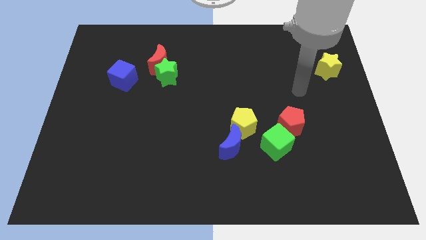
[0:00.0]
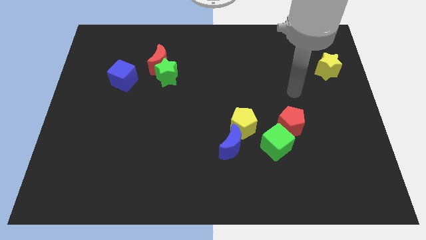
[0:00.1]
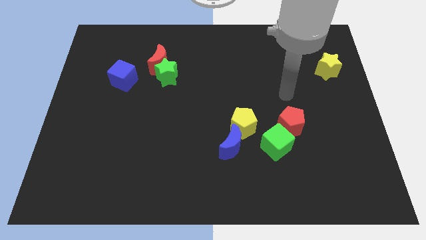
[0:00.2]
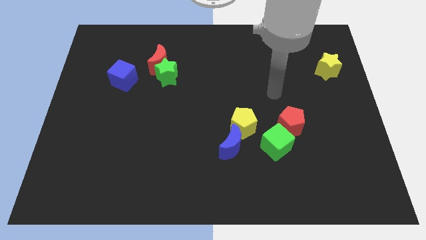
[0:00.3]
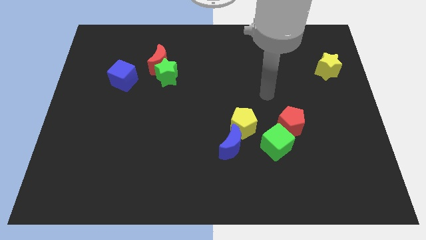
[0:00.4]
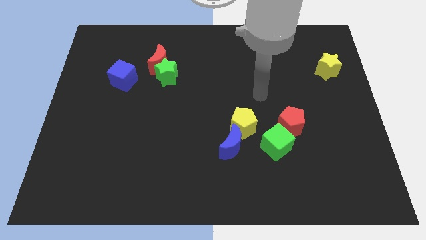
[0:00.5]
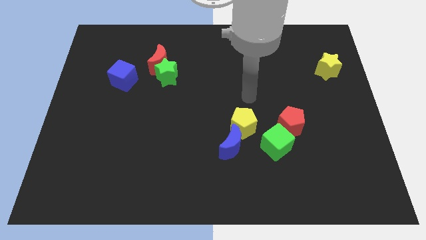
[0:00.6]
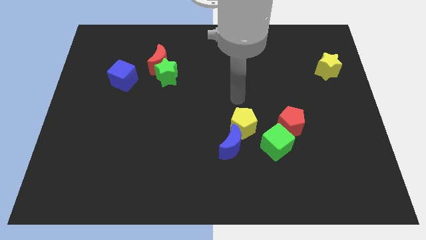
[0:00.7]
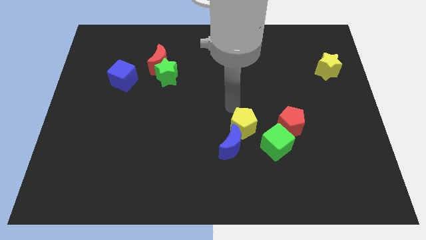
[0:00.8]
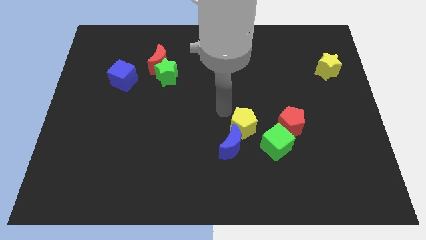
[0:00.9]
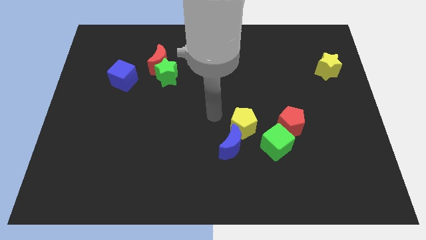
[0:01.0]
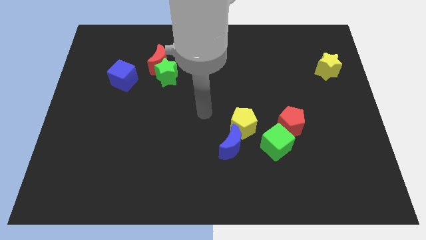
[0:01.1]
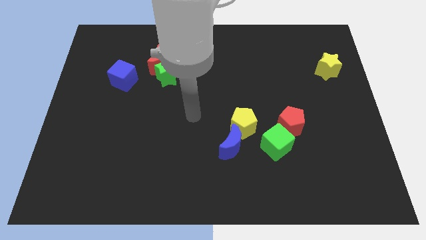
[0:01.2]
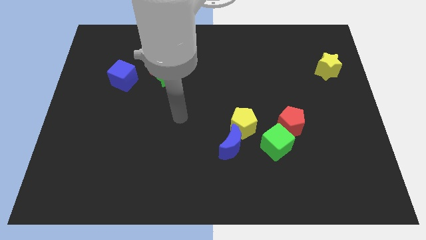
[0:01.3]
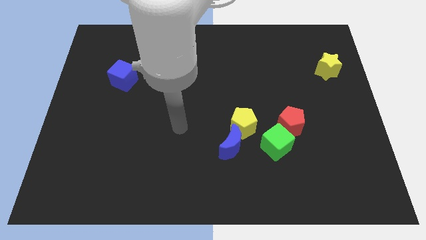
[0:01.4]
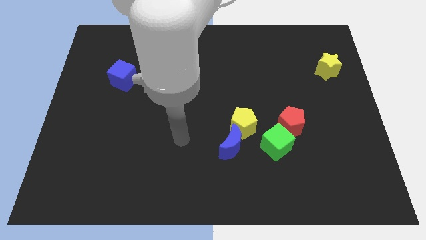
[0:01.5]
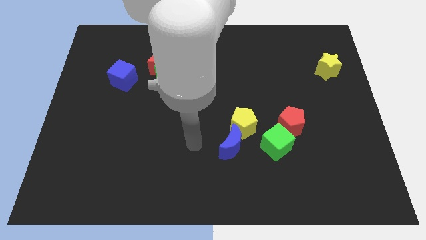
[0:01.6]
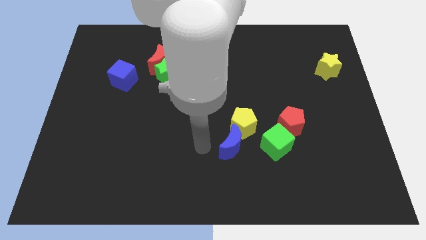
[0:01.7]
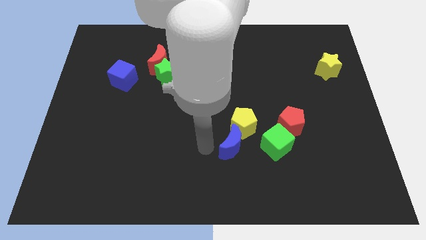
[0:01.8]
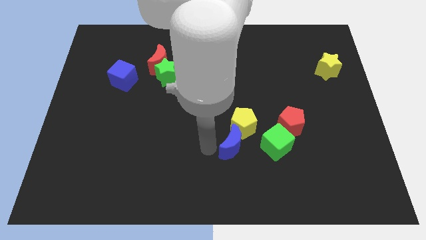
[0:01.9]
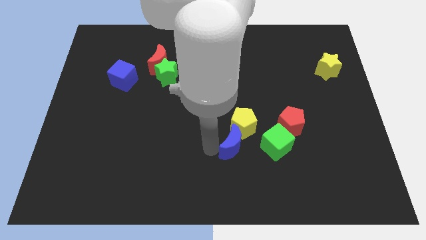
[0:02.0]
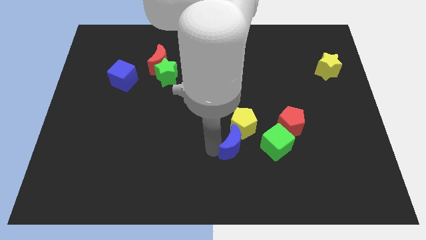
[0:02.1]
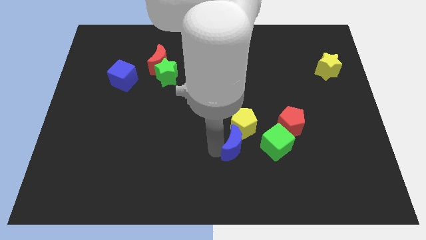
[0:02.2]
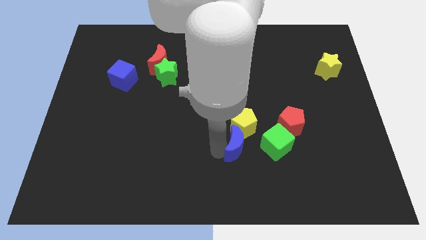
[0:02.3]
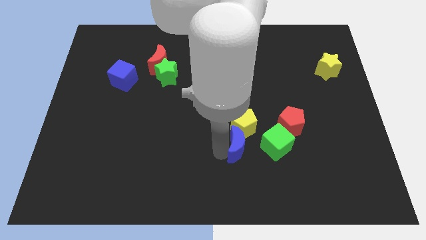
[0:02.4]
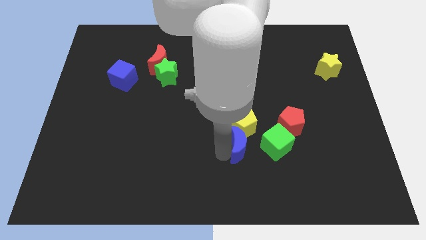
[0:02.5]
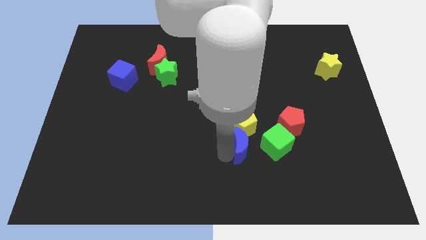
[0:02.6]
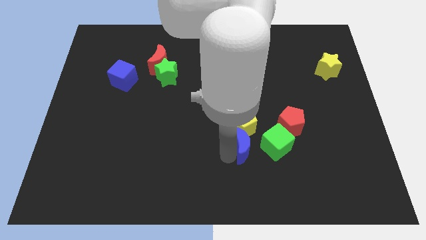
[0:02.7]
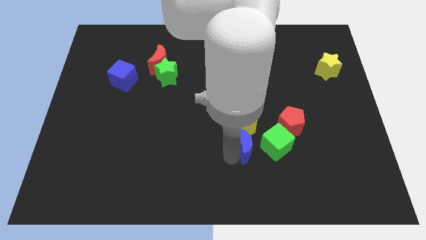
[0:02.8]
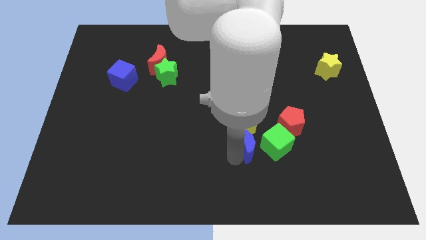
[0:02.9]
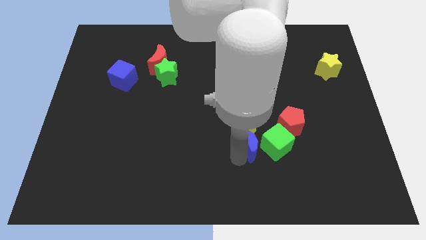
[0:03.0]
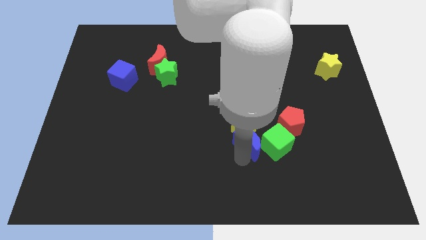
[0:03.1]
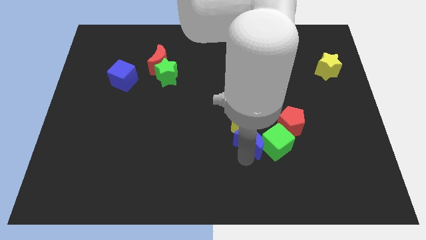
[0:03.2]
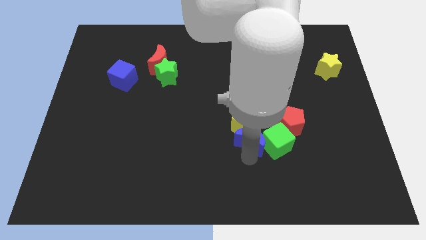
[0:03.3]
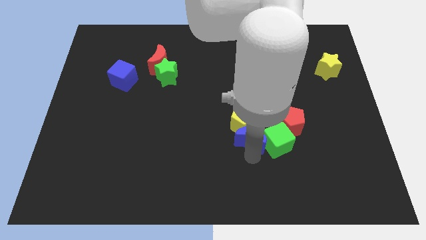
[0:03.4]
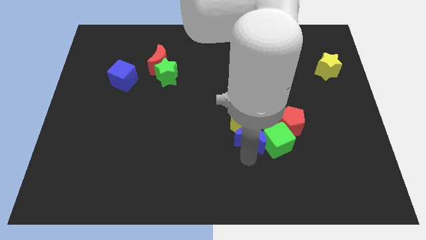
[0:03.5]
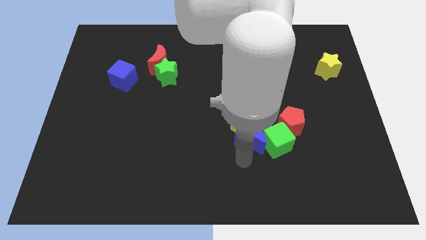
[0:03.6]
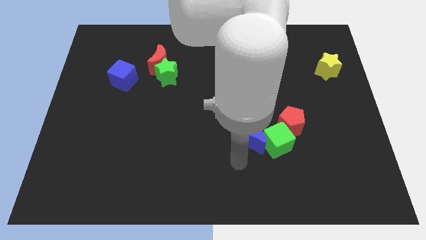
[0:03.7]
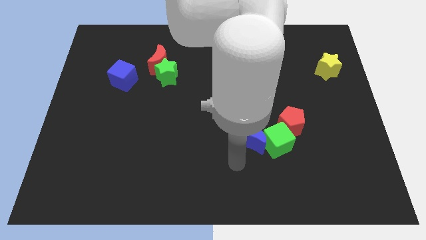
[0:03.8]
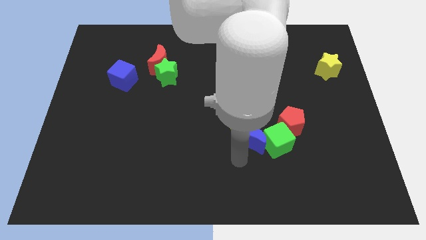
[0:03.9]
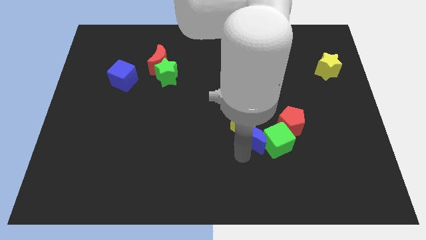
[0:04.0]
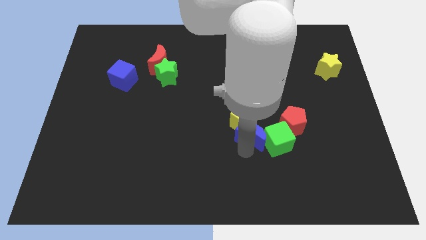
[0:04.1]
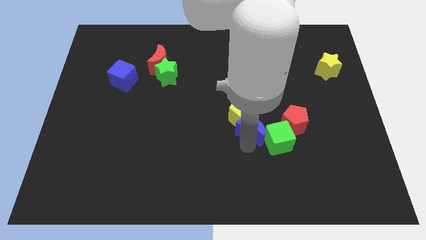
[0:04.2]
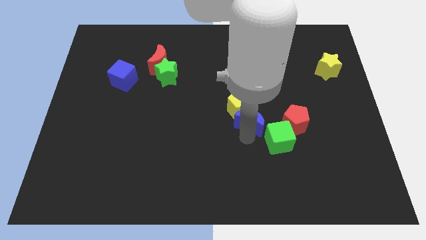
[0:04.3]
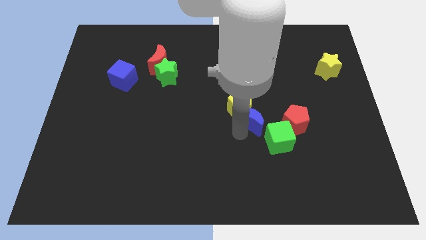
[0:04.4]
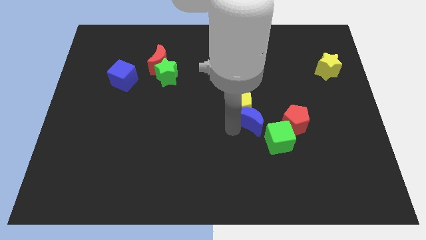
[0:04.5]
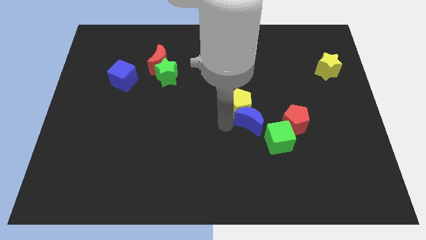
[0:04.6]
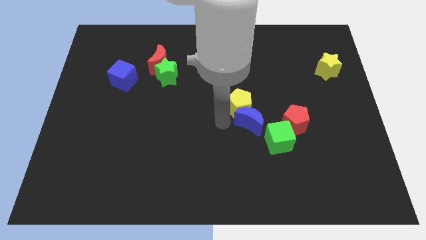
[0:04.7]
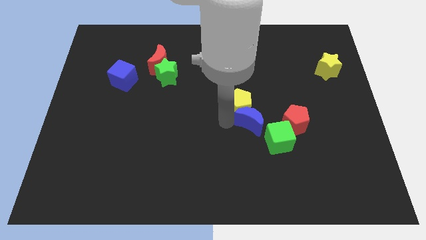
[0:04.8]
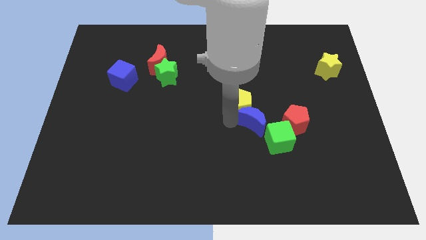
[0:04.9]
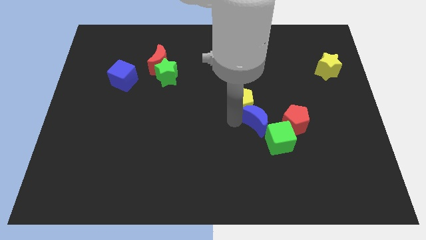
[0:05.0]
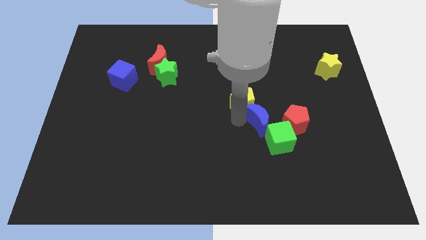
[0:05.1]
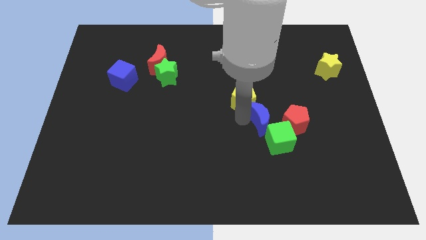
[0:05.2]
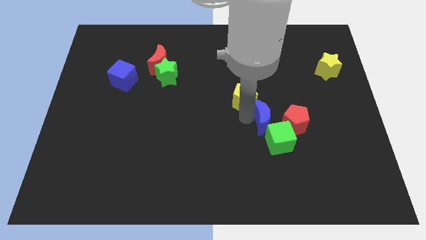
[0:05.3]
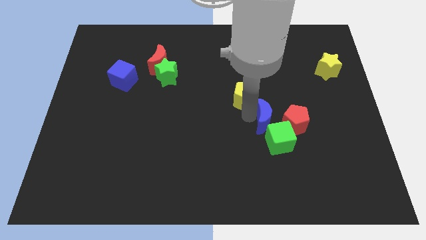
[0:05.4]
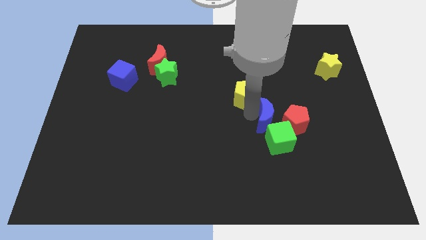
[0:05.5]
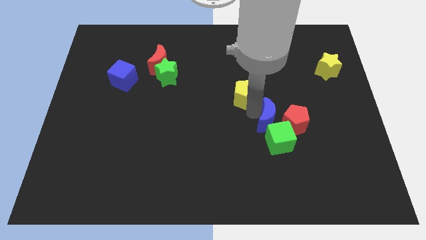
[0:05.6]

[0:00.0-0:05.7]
slide the blue moon to the red pentagon

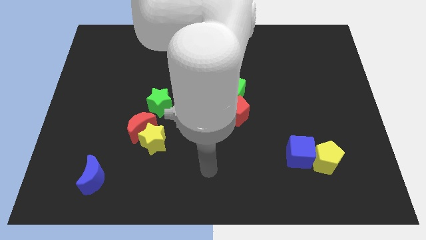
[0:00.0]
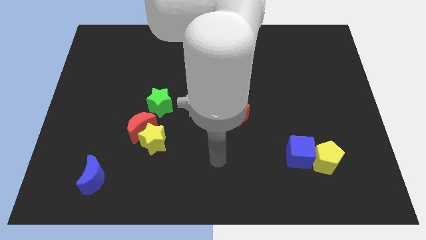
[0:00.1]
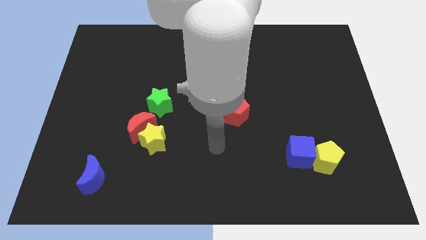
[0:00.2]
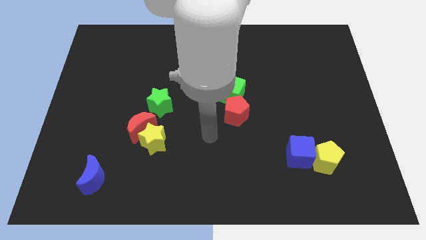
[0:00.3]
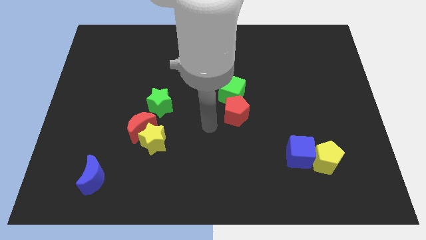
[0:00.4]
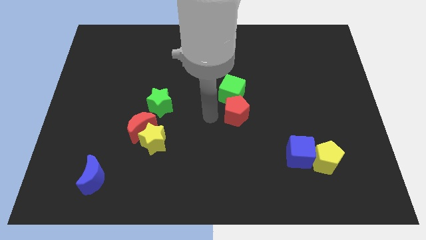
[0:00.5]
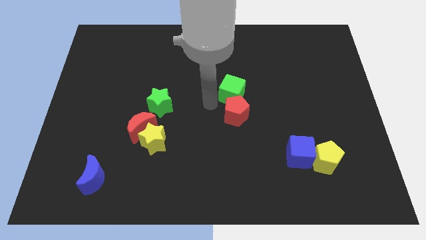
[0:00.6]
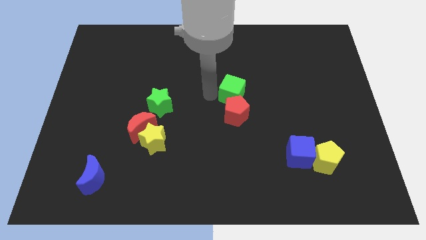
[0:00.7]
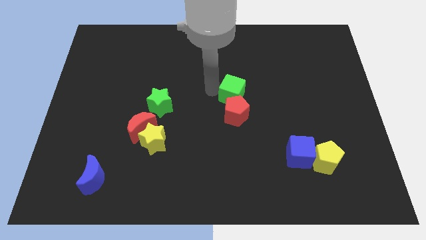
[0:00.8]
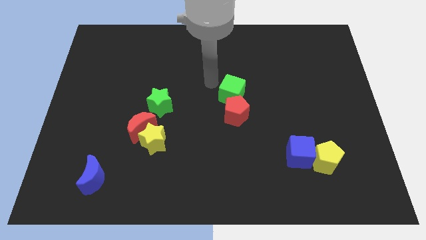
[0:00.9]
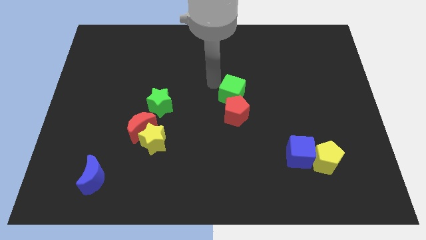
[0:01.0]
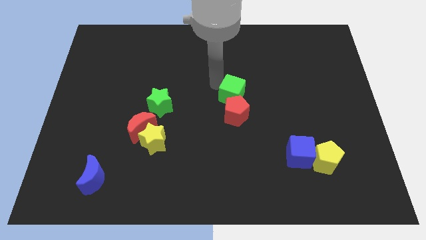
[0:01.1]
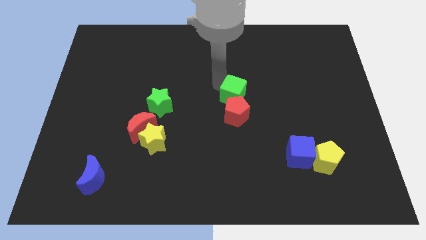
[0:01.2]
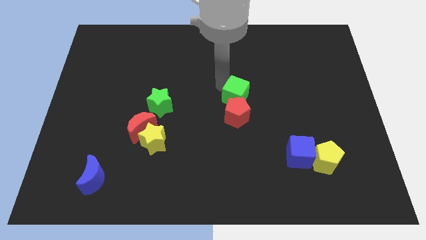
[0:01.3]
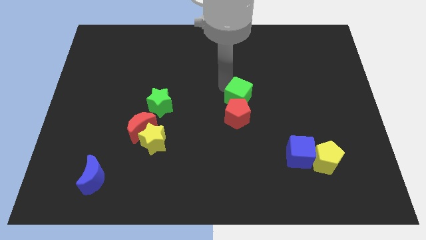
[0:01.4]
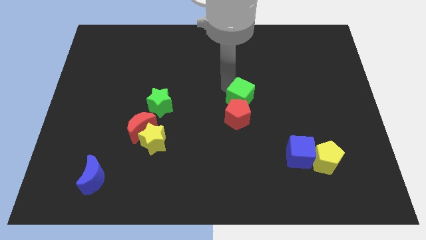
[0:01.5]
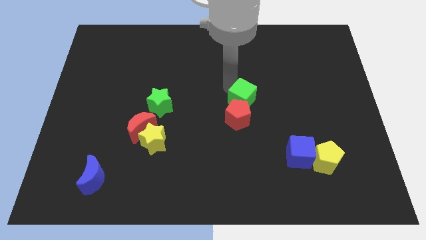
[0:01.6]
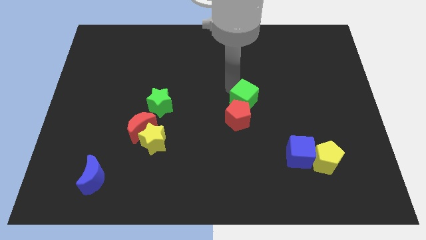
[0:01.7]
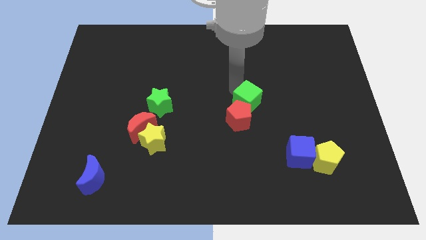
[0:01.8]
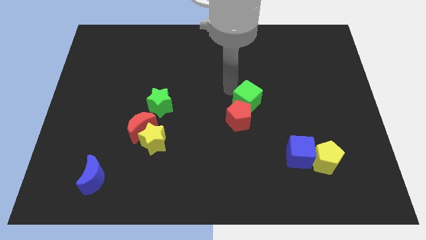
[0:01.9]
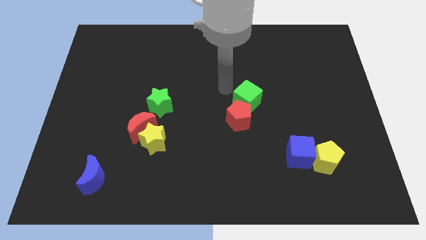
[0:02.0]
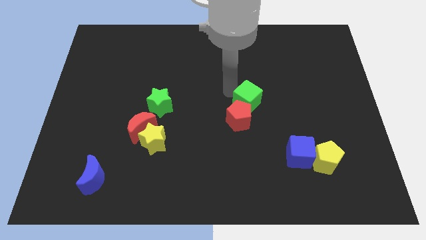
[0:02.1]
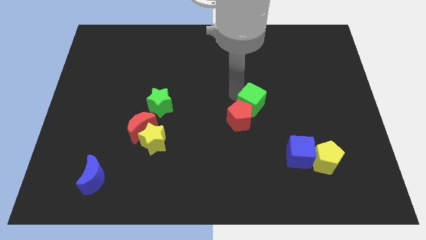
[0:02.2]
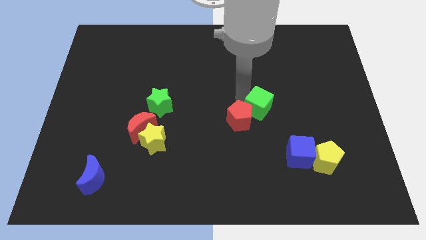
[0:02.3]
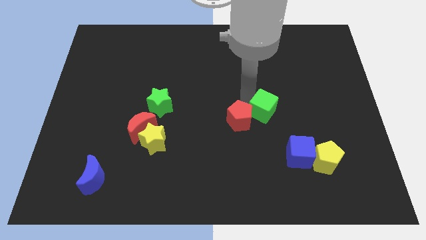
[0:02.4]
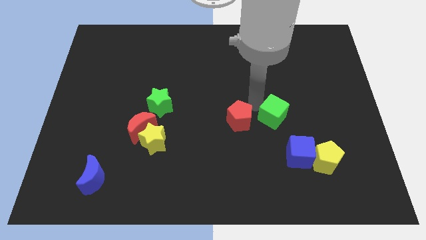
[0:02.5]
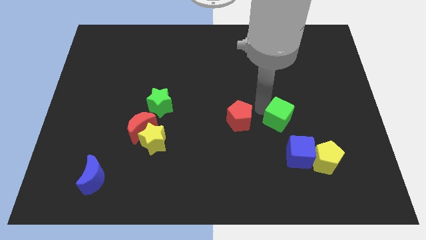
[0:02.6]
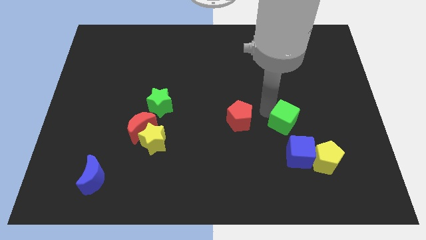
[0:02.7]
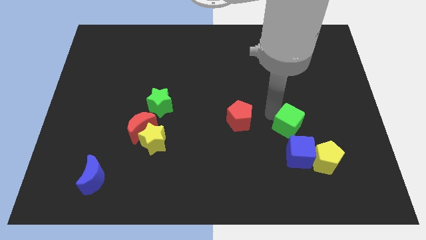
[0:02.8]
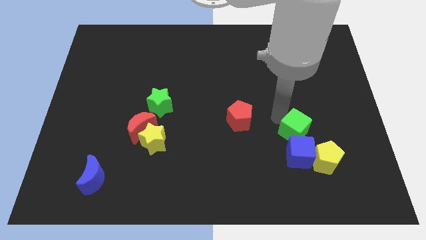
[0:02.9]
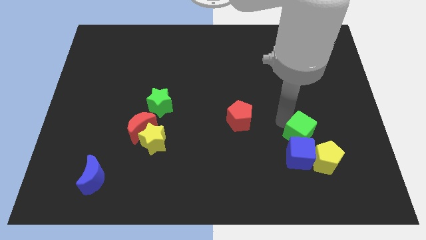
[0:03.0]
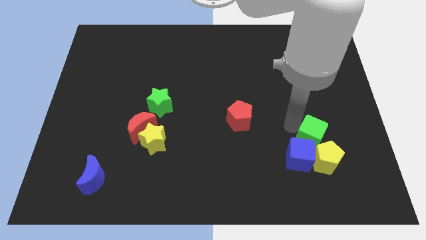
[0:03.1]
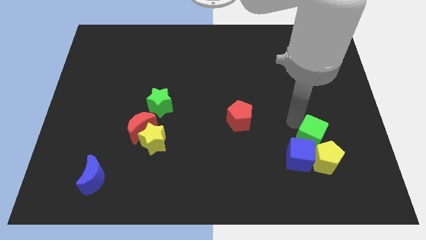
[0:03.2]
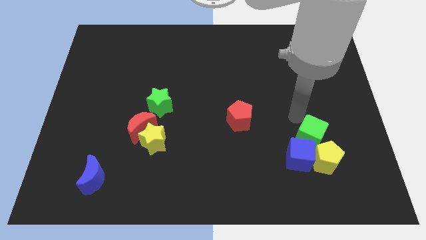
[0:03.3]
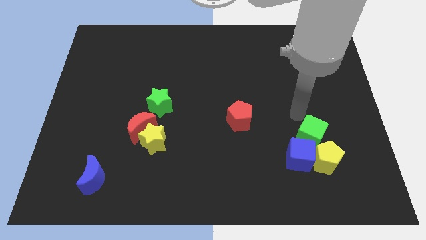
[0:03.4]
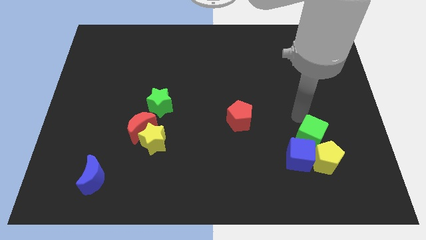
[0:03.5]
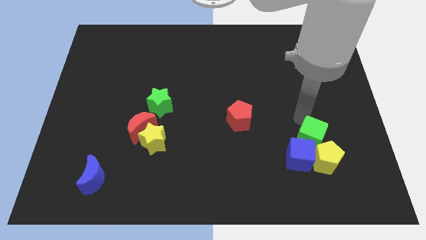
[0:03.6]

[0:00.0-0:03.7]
put the green cube to the yellow pentagon
